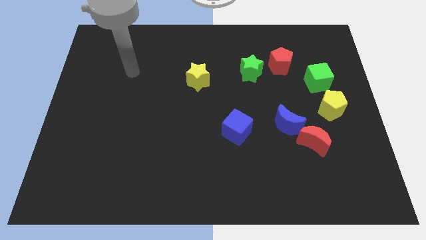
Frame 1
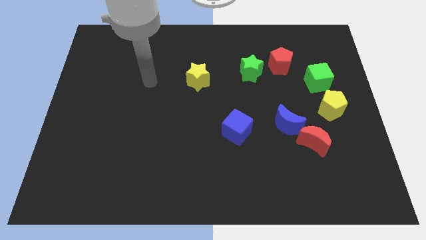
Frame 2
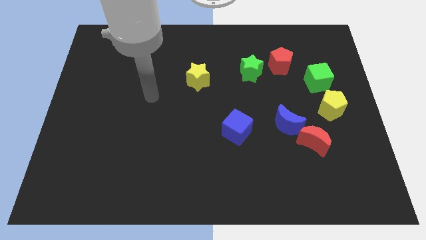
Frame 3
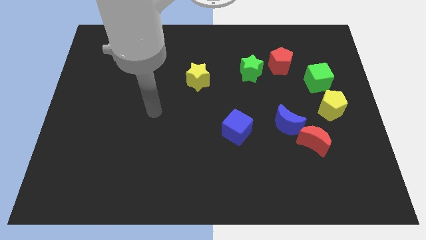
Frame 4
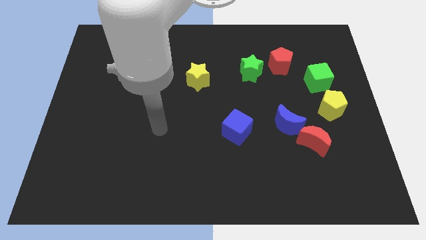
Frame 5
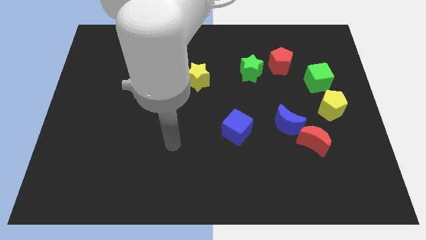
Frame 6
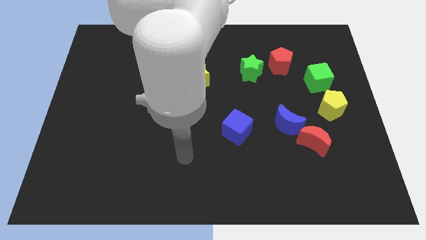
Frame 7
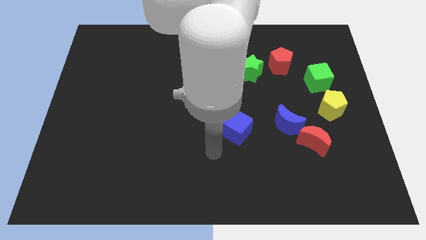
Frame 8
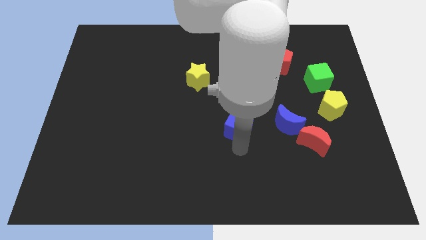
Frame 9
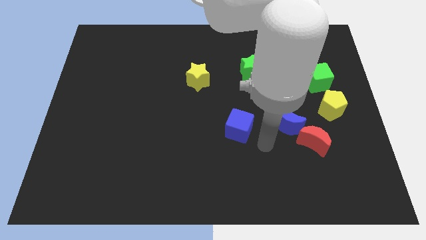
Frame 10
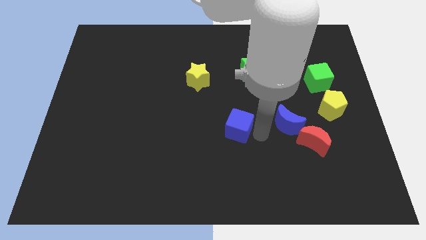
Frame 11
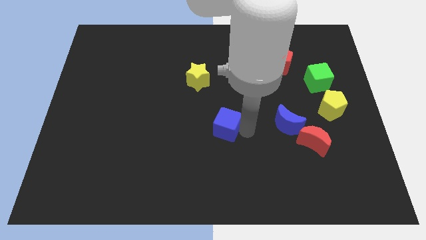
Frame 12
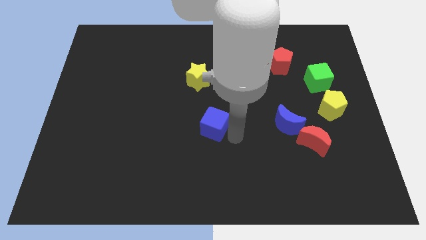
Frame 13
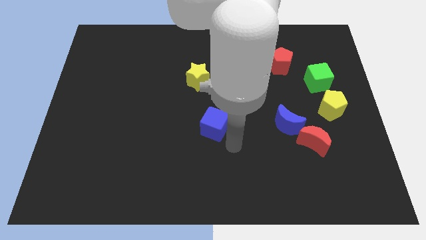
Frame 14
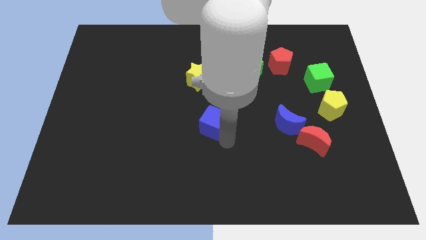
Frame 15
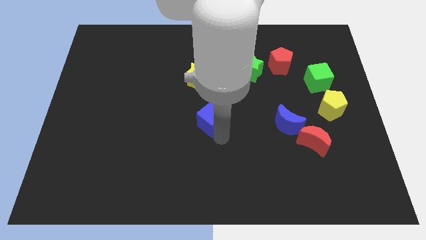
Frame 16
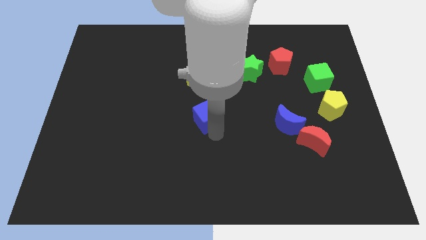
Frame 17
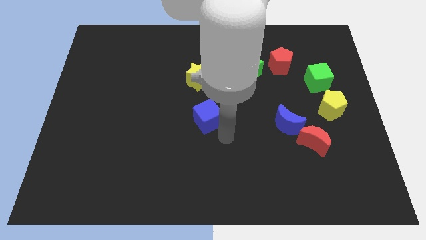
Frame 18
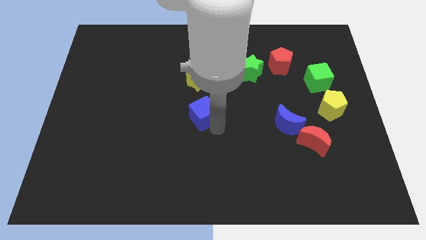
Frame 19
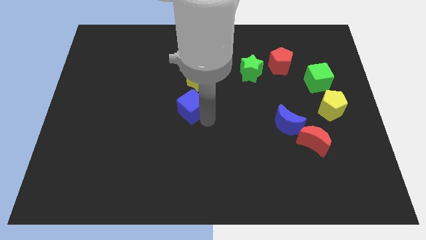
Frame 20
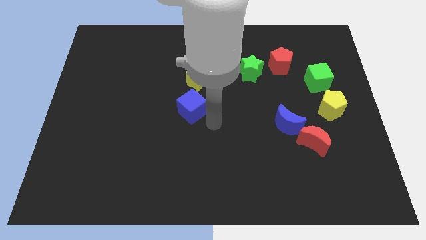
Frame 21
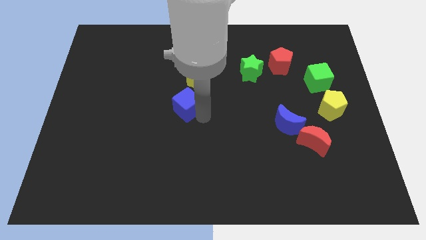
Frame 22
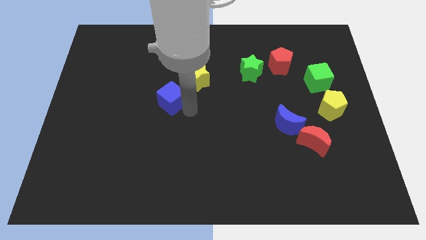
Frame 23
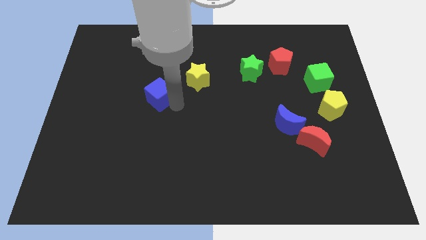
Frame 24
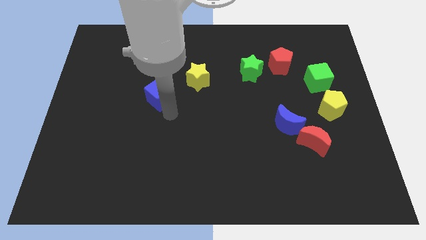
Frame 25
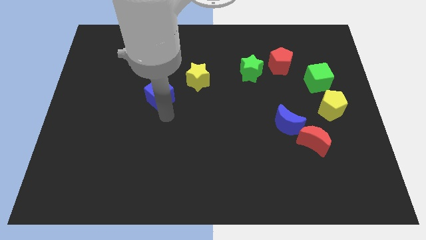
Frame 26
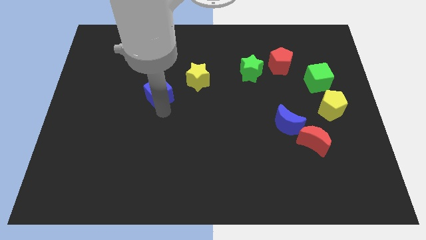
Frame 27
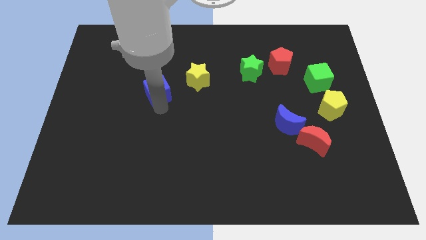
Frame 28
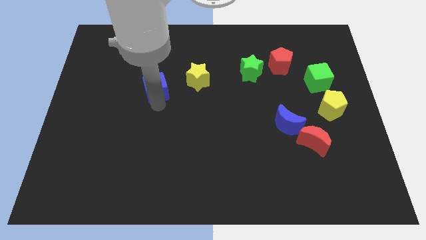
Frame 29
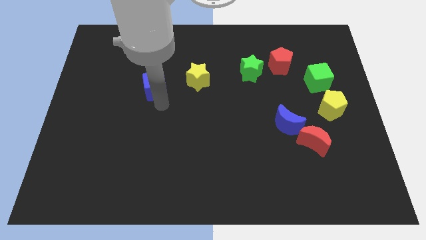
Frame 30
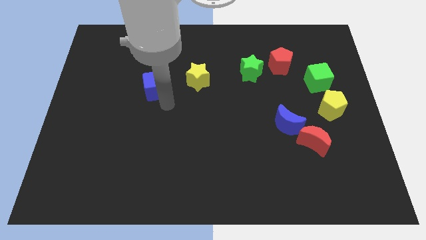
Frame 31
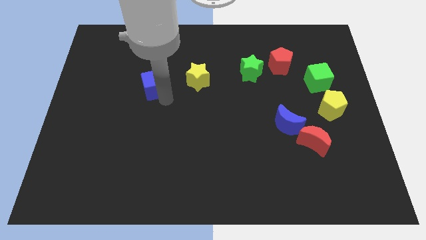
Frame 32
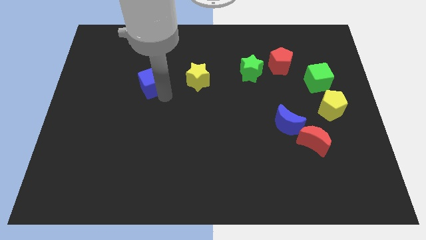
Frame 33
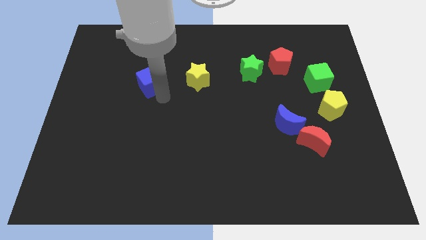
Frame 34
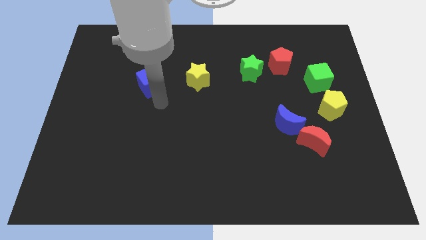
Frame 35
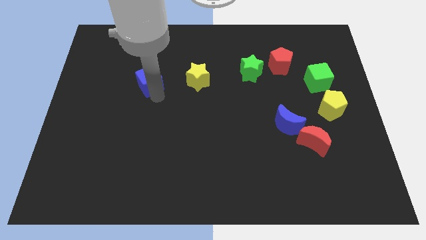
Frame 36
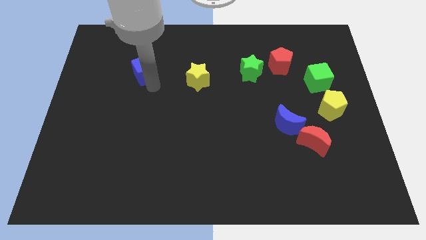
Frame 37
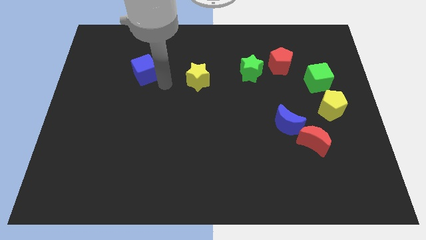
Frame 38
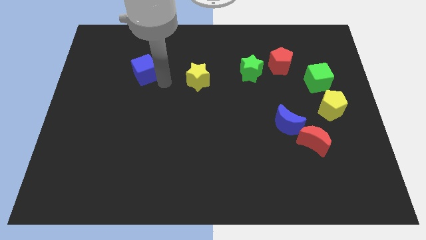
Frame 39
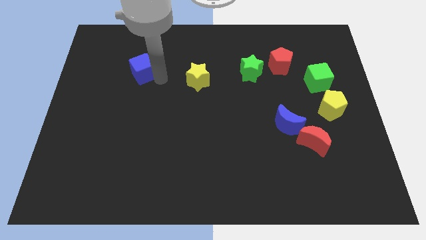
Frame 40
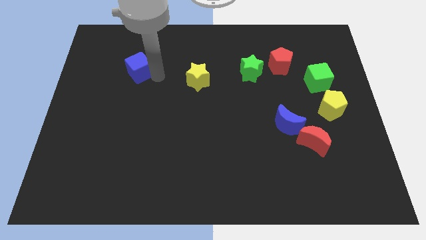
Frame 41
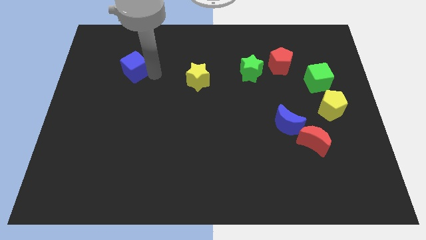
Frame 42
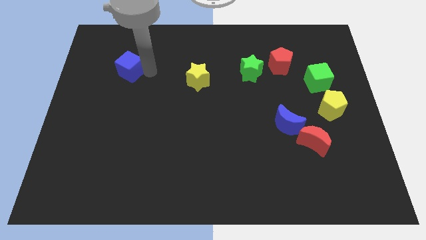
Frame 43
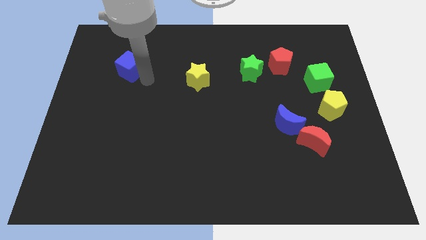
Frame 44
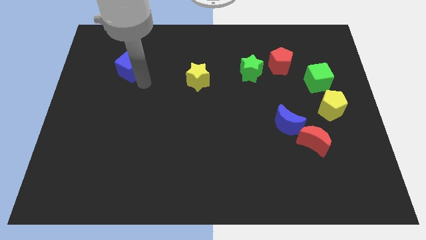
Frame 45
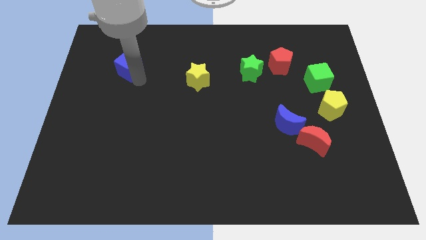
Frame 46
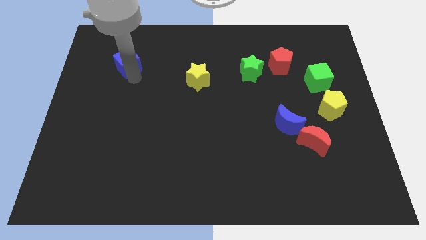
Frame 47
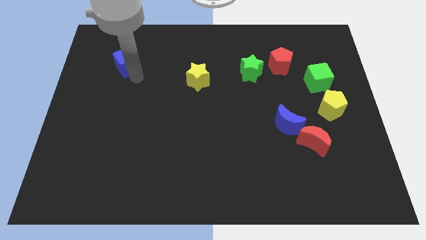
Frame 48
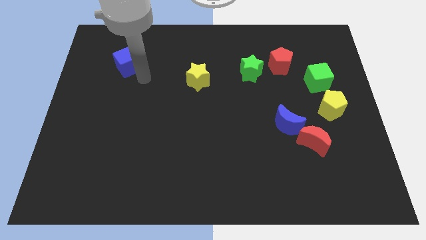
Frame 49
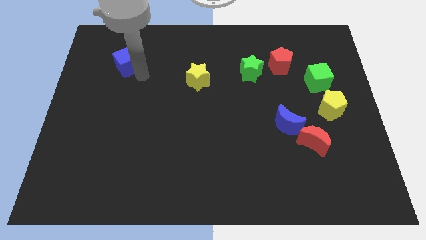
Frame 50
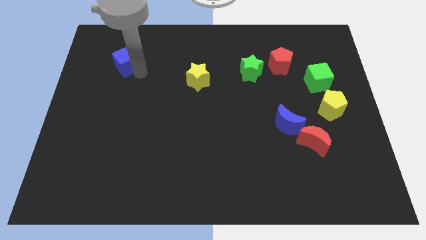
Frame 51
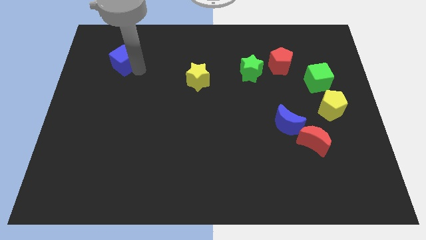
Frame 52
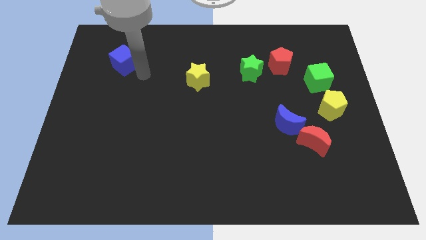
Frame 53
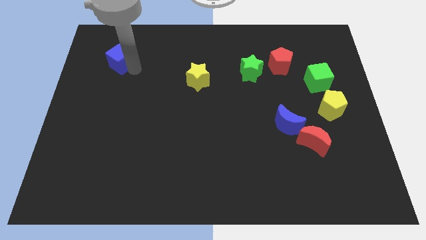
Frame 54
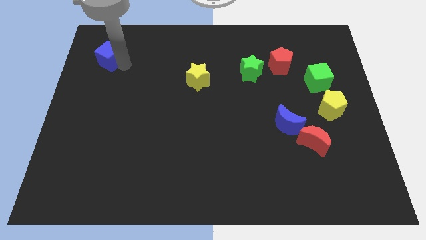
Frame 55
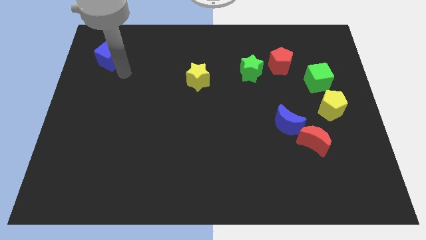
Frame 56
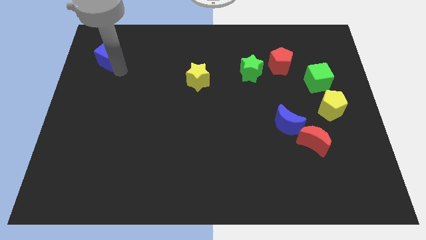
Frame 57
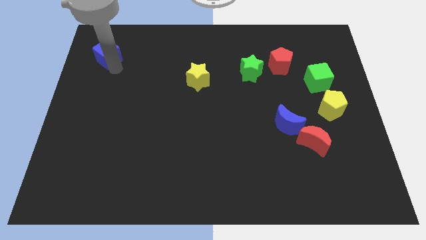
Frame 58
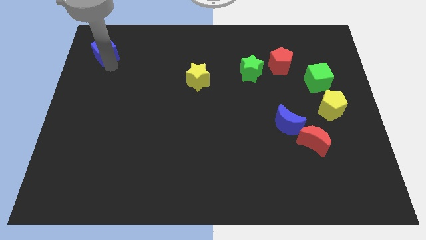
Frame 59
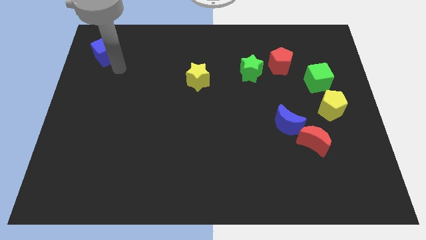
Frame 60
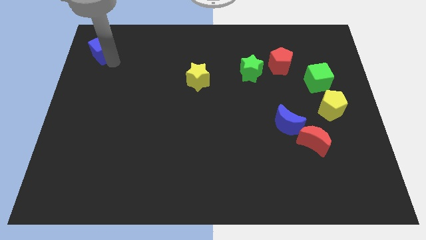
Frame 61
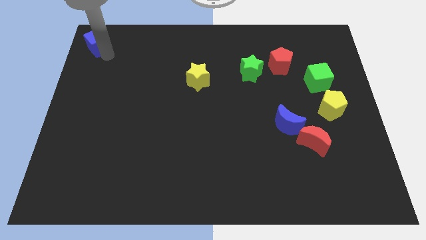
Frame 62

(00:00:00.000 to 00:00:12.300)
push the blue cube to the upper left corner
